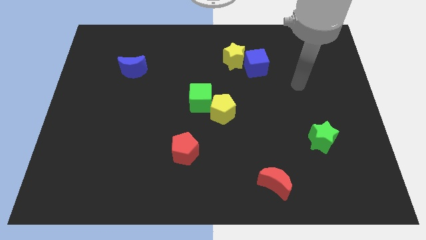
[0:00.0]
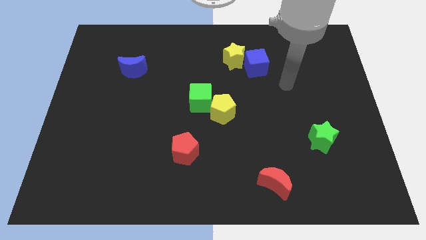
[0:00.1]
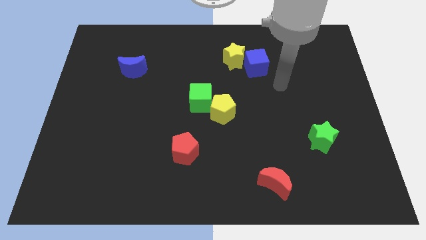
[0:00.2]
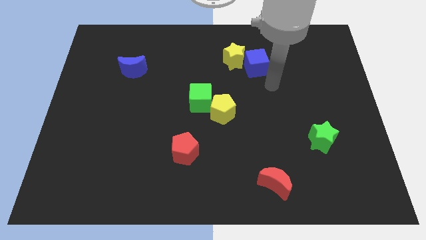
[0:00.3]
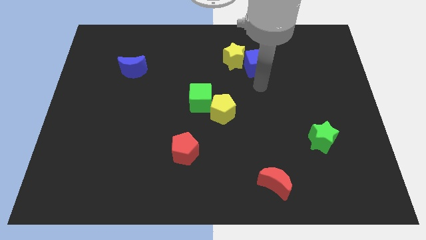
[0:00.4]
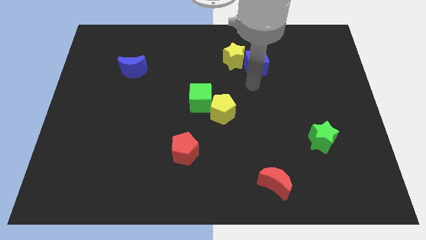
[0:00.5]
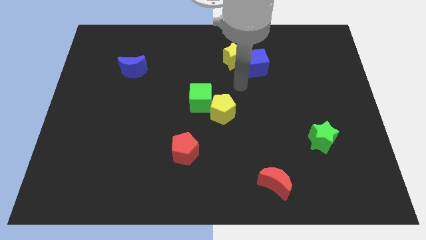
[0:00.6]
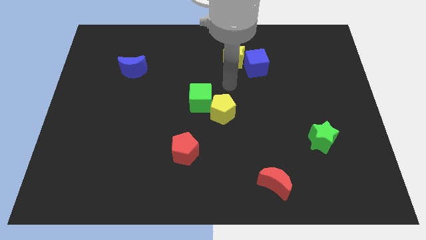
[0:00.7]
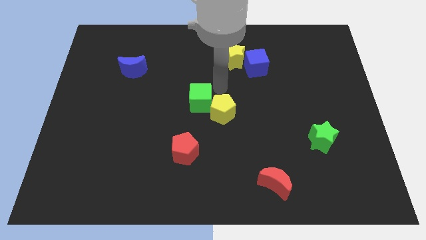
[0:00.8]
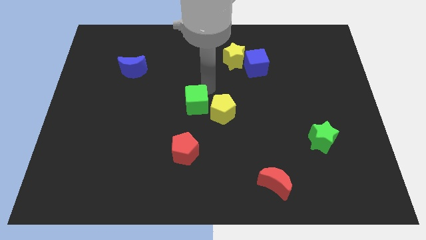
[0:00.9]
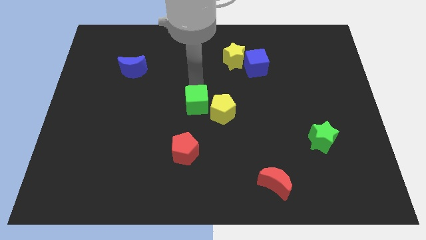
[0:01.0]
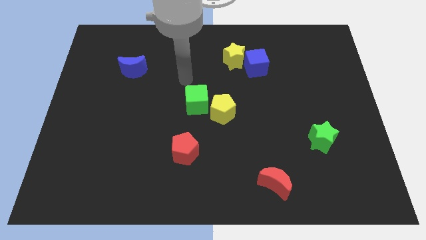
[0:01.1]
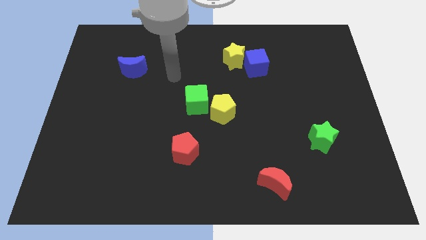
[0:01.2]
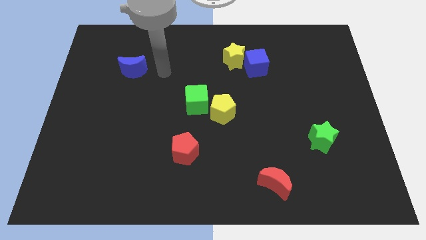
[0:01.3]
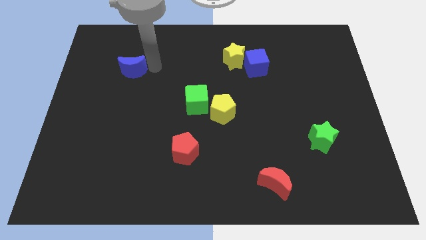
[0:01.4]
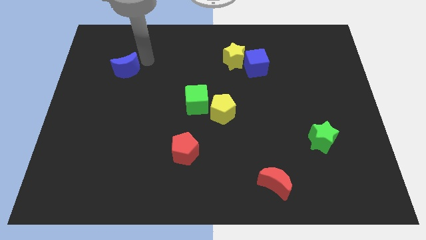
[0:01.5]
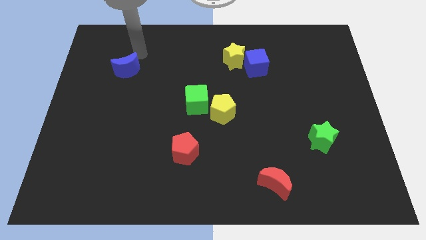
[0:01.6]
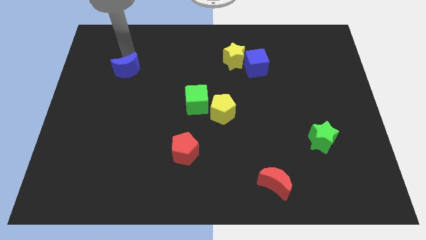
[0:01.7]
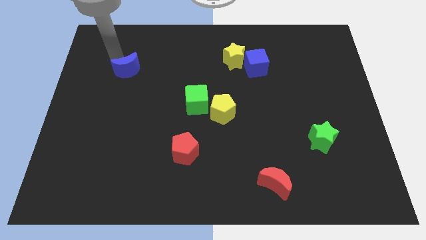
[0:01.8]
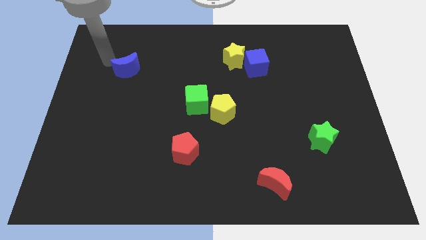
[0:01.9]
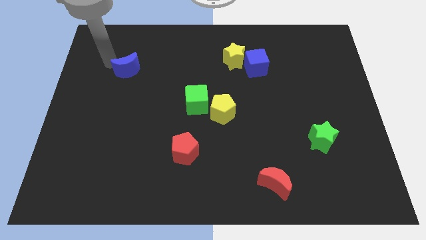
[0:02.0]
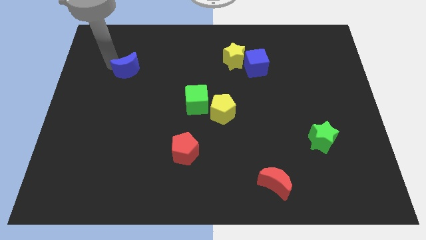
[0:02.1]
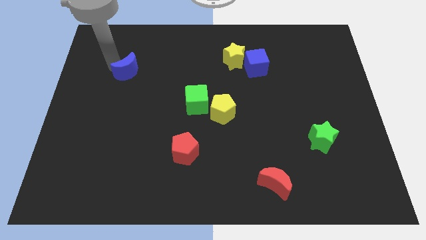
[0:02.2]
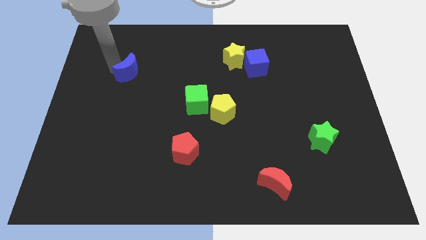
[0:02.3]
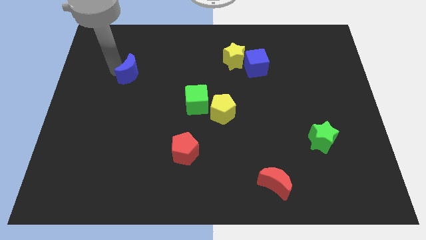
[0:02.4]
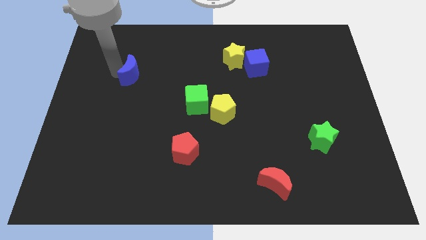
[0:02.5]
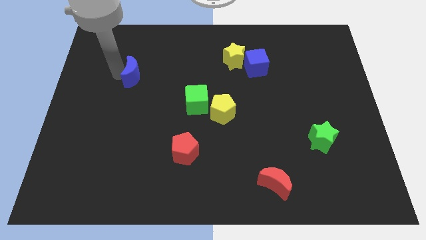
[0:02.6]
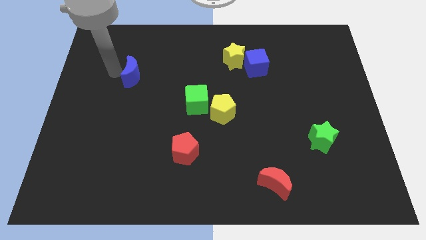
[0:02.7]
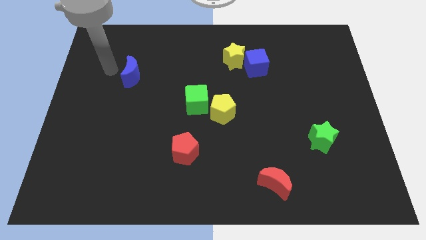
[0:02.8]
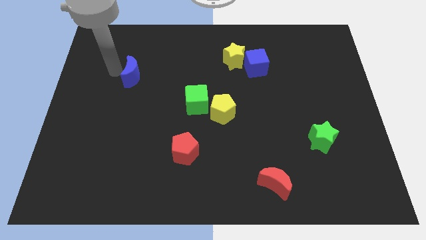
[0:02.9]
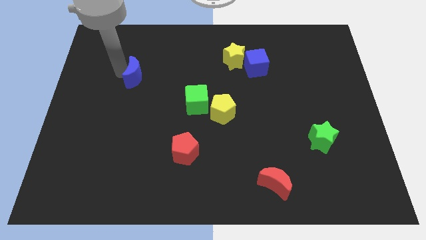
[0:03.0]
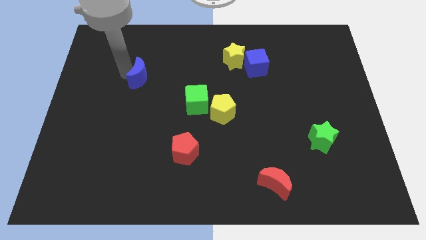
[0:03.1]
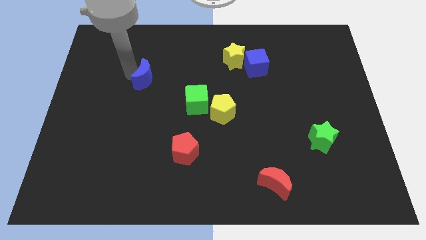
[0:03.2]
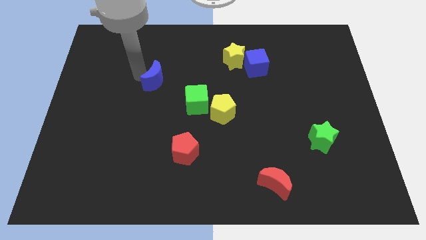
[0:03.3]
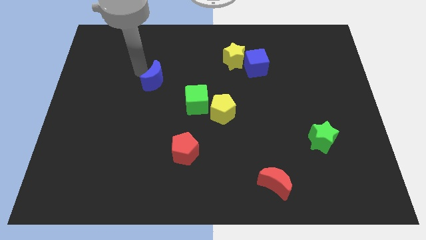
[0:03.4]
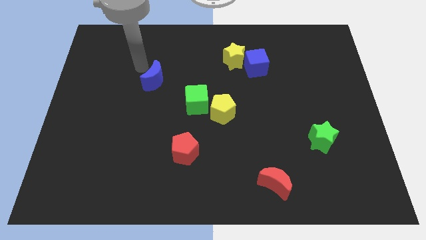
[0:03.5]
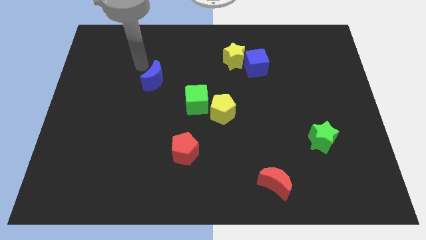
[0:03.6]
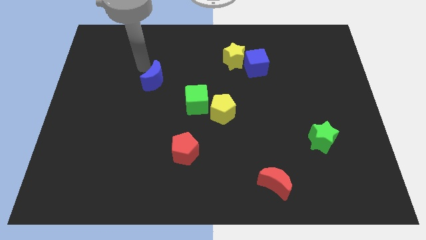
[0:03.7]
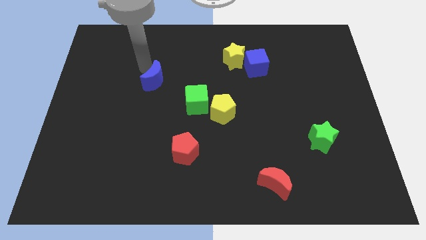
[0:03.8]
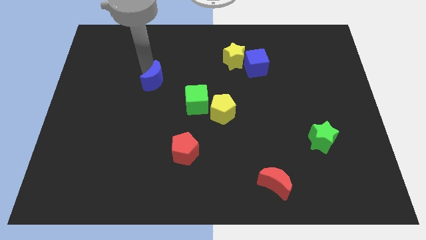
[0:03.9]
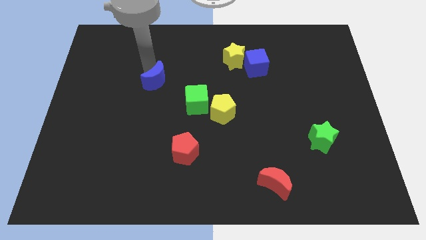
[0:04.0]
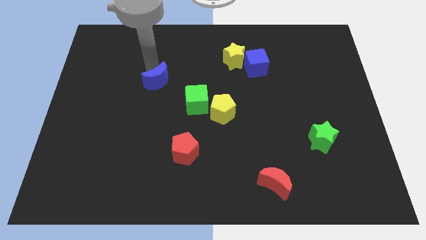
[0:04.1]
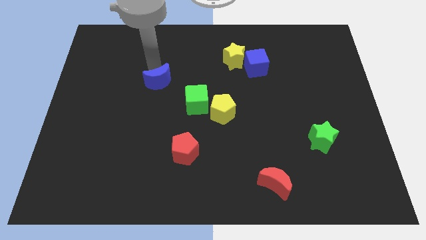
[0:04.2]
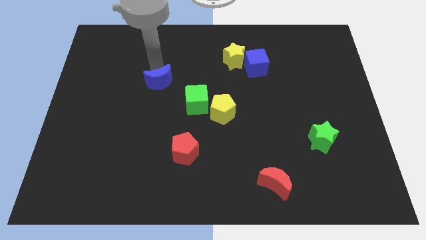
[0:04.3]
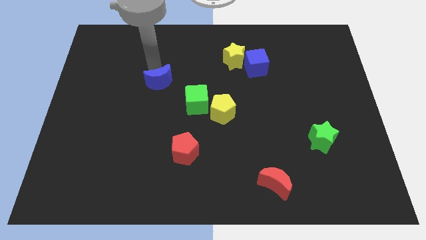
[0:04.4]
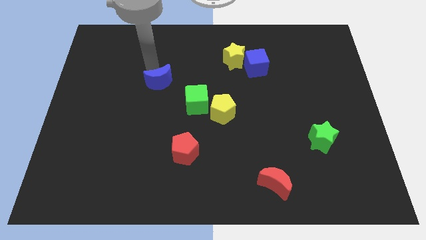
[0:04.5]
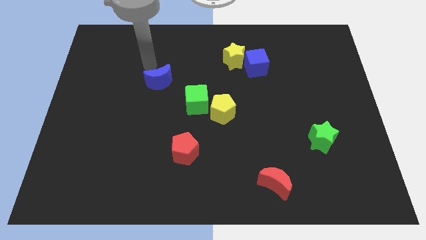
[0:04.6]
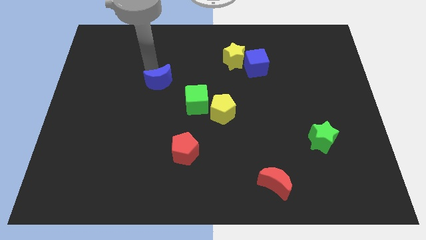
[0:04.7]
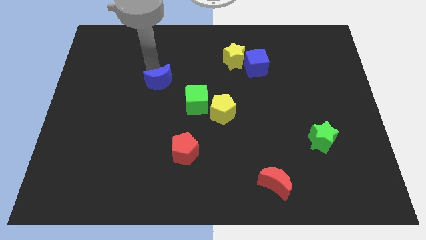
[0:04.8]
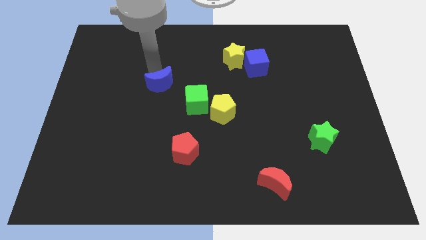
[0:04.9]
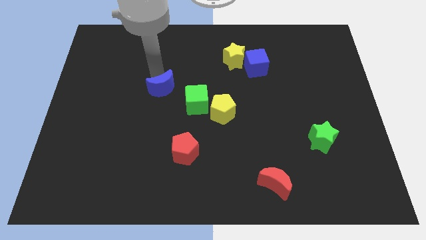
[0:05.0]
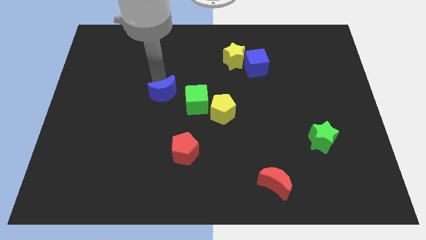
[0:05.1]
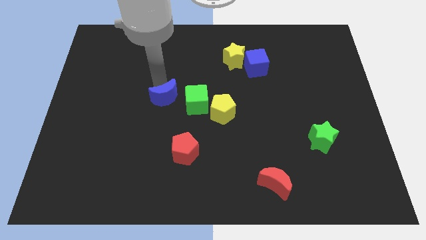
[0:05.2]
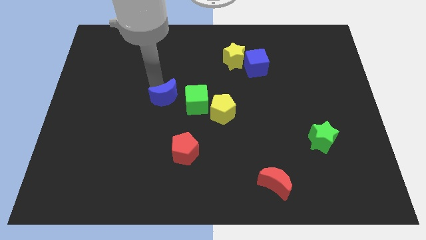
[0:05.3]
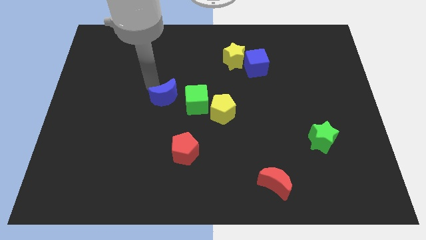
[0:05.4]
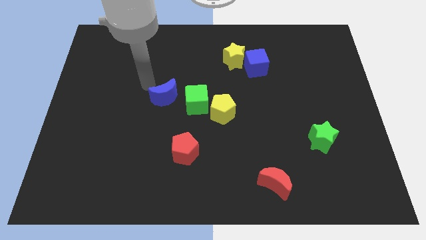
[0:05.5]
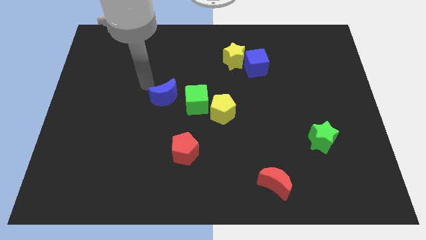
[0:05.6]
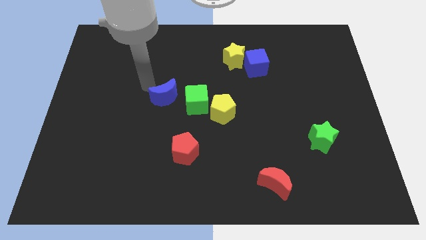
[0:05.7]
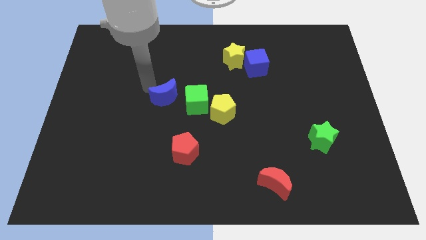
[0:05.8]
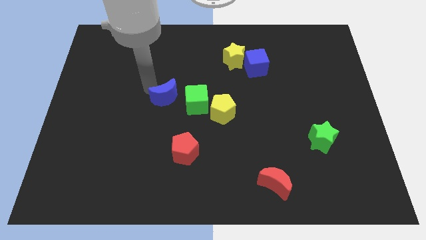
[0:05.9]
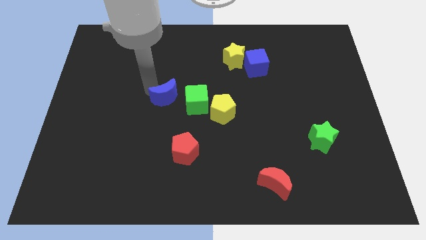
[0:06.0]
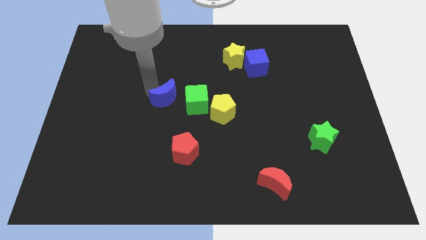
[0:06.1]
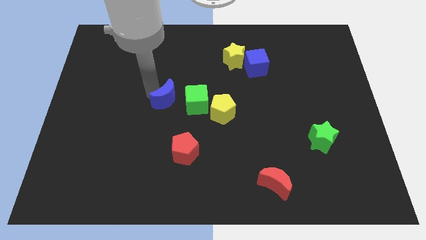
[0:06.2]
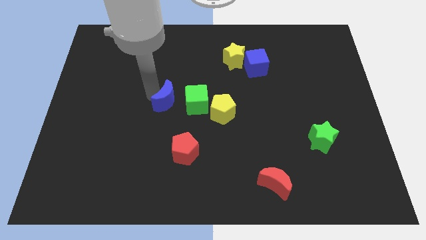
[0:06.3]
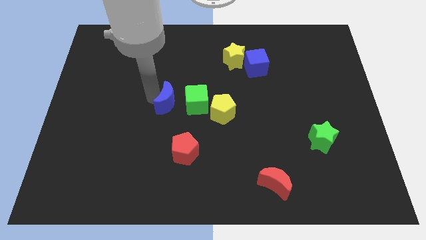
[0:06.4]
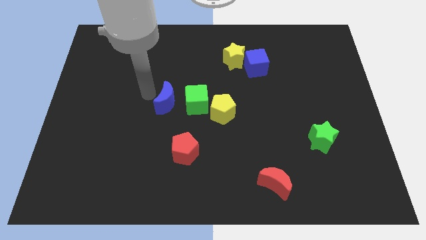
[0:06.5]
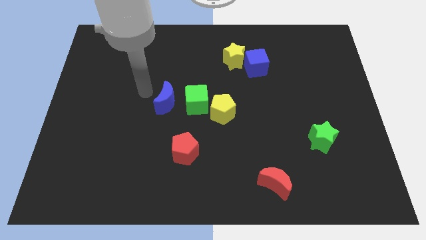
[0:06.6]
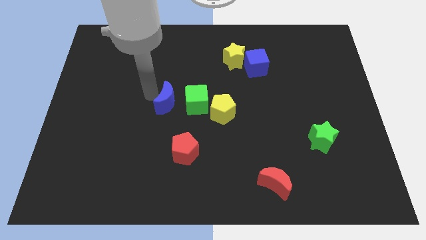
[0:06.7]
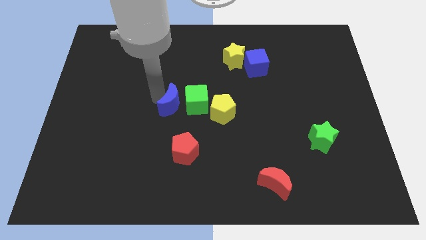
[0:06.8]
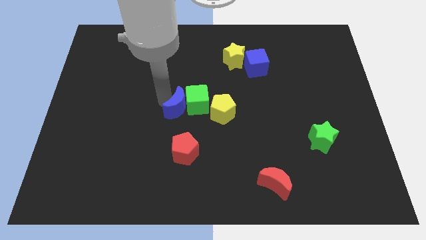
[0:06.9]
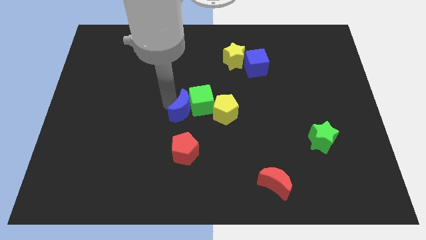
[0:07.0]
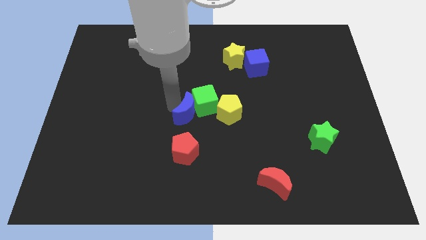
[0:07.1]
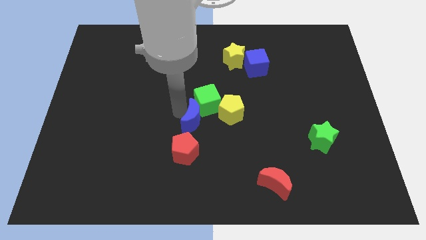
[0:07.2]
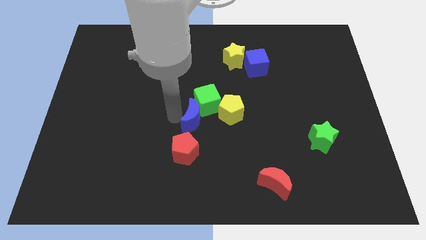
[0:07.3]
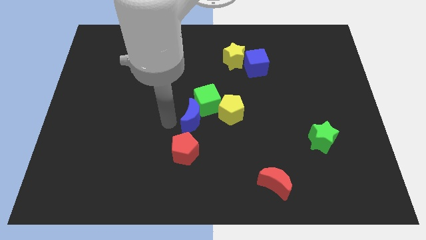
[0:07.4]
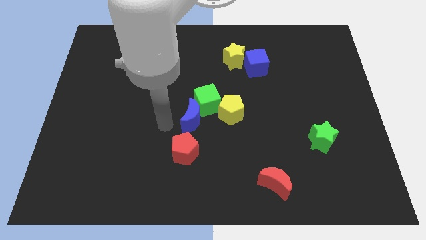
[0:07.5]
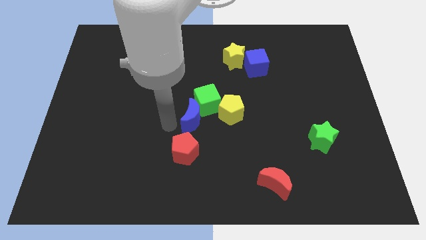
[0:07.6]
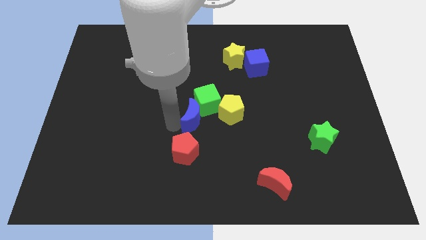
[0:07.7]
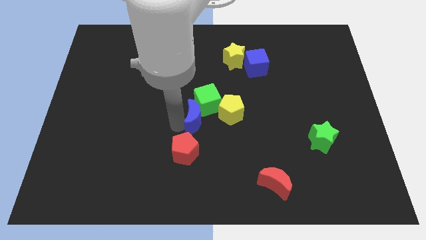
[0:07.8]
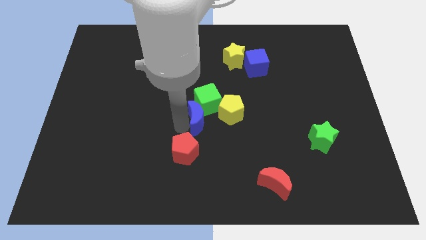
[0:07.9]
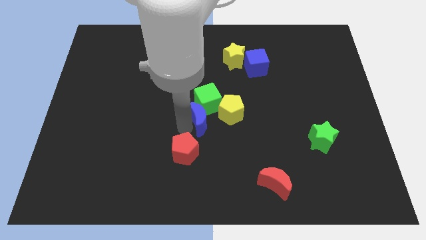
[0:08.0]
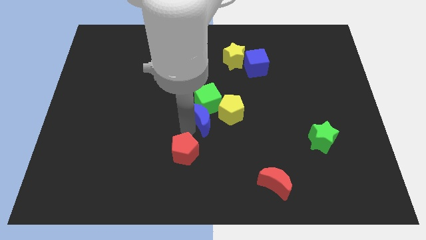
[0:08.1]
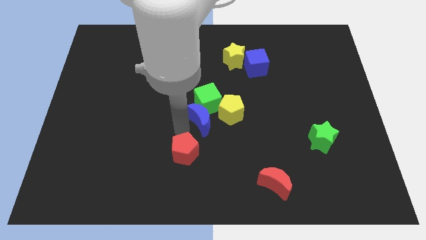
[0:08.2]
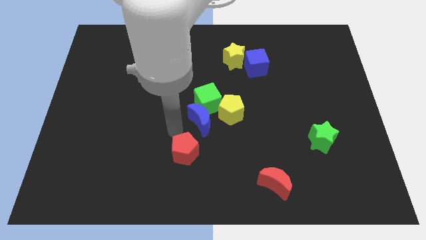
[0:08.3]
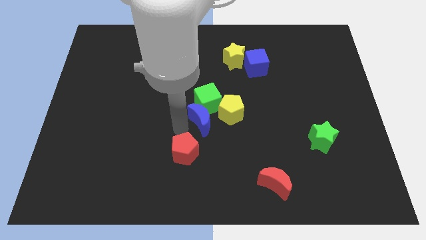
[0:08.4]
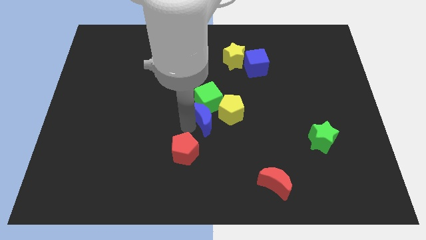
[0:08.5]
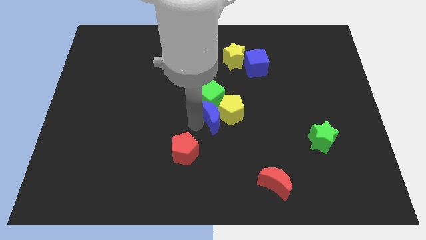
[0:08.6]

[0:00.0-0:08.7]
push the blue moon to the yellow pentagon
